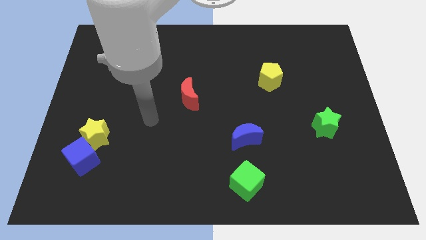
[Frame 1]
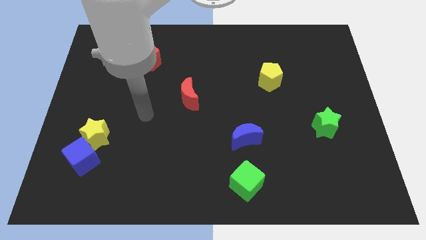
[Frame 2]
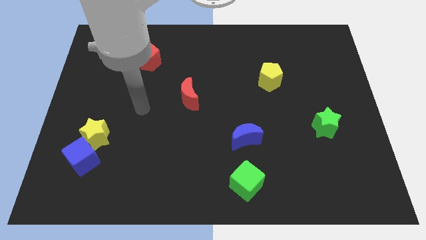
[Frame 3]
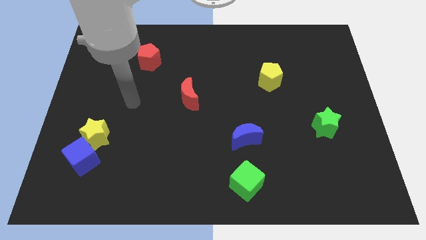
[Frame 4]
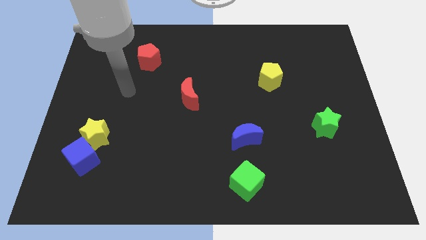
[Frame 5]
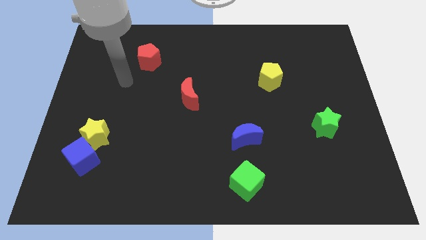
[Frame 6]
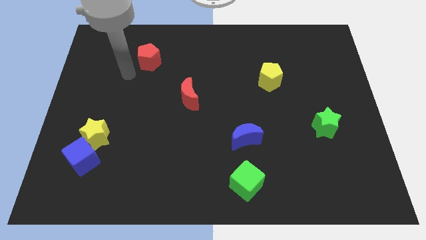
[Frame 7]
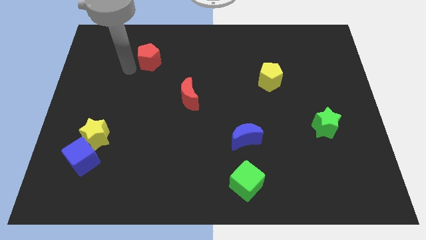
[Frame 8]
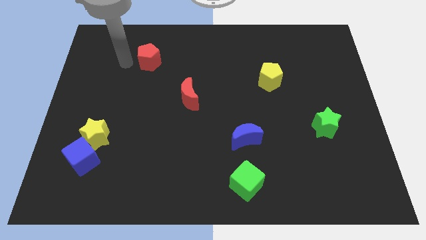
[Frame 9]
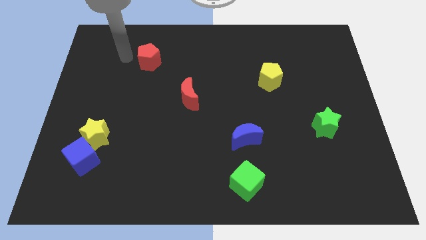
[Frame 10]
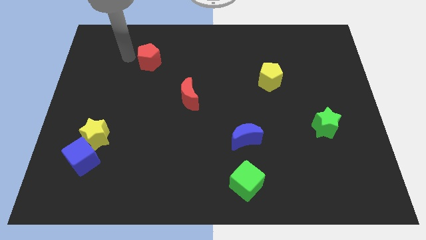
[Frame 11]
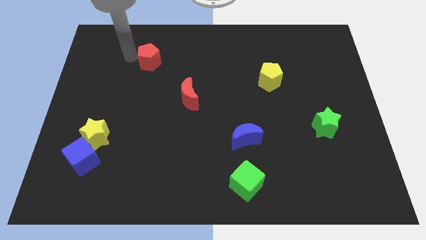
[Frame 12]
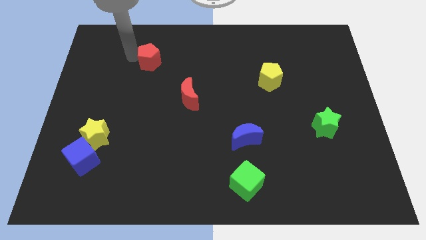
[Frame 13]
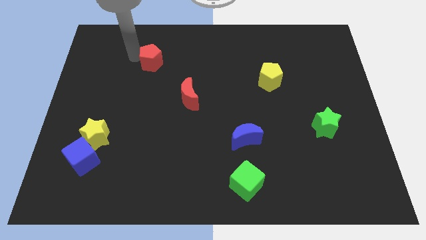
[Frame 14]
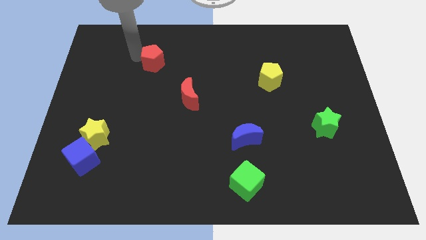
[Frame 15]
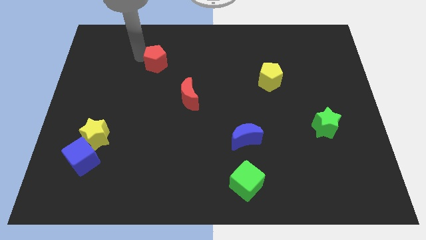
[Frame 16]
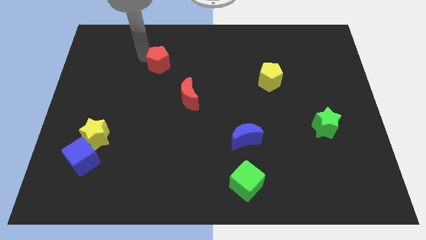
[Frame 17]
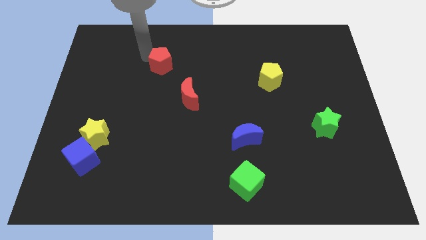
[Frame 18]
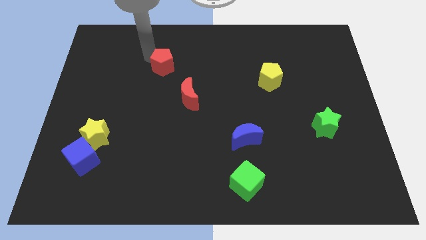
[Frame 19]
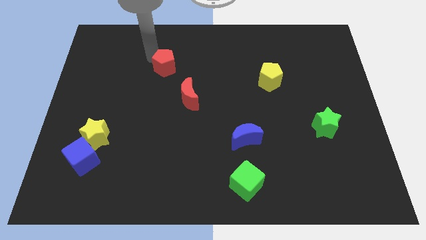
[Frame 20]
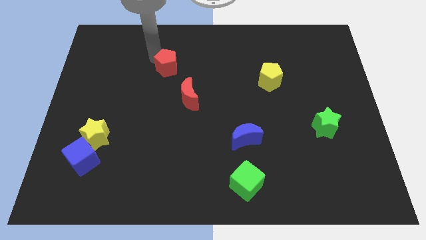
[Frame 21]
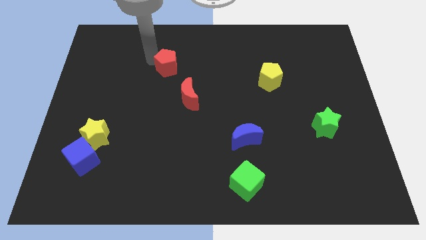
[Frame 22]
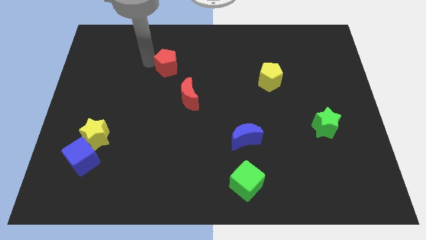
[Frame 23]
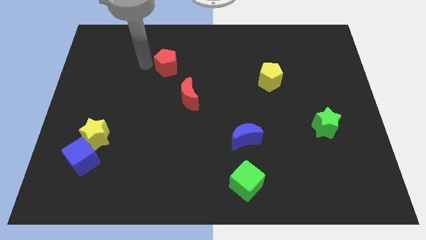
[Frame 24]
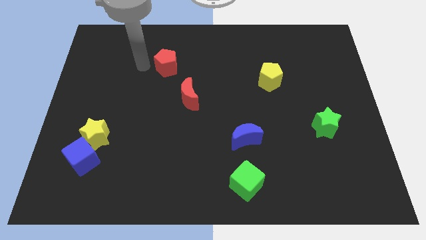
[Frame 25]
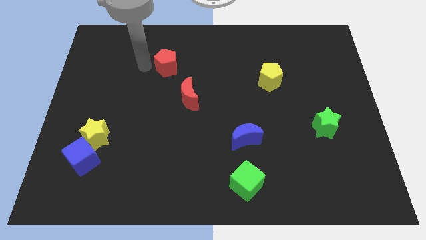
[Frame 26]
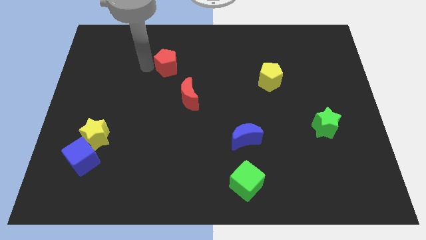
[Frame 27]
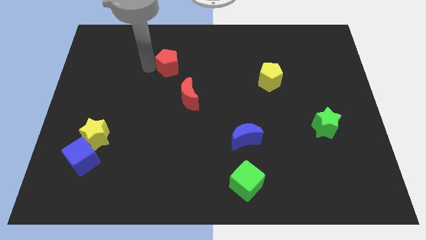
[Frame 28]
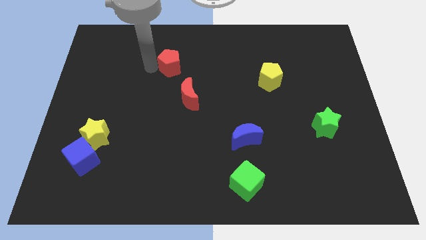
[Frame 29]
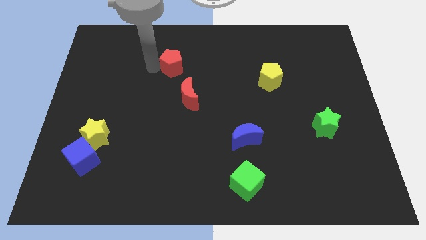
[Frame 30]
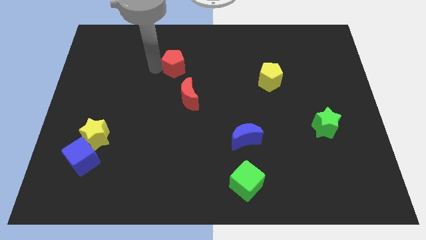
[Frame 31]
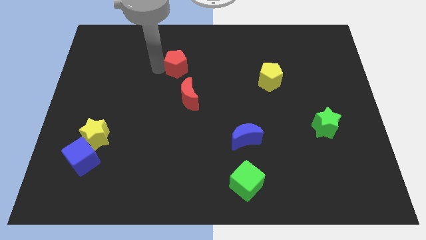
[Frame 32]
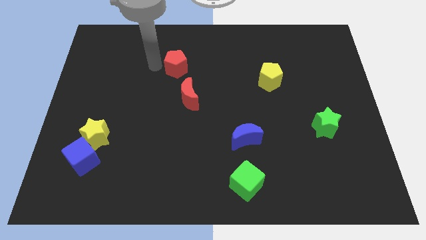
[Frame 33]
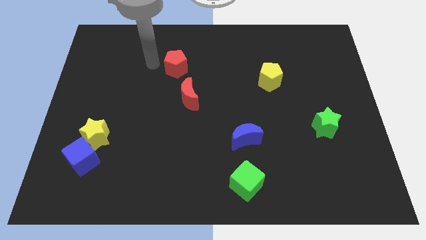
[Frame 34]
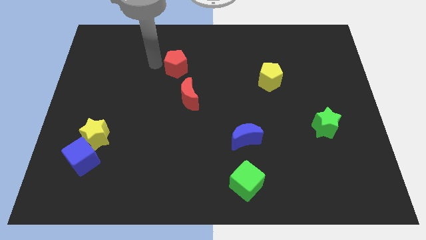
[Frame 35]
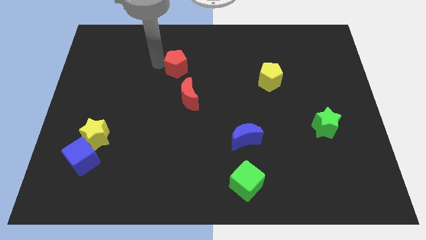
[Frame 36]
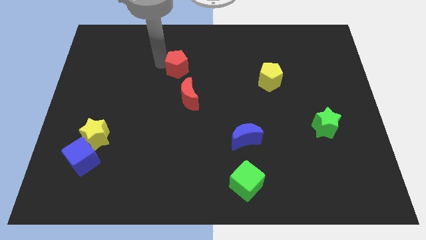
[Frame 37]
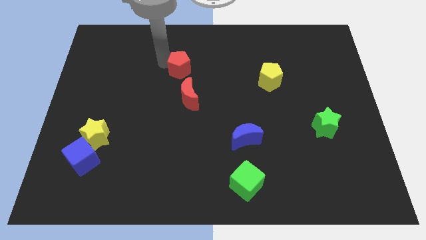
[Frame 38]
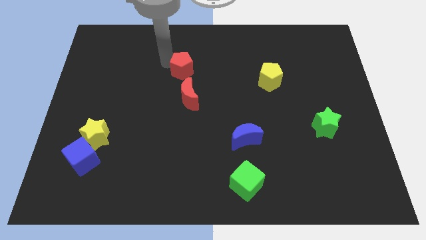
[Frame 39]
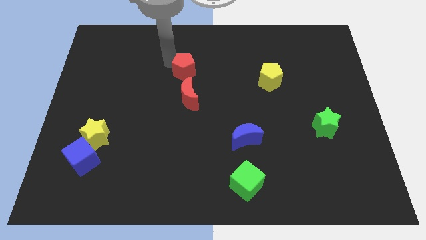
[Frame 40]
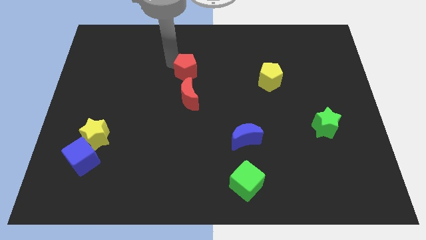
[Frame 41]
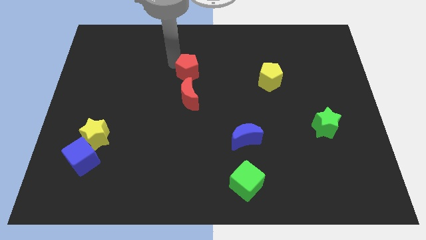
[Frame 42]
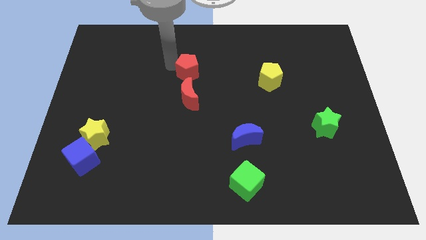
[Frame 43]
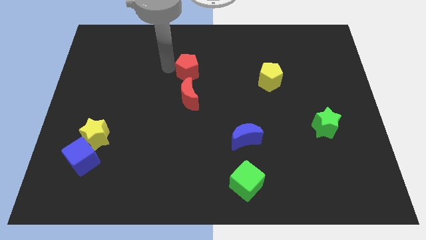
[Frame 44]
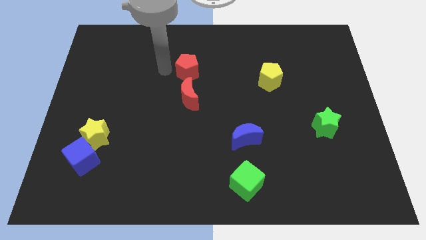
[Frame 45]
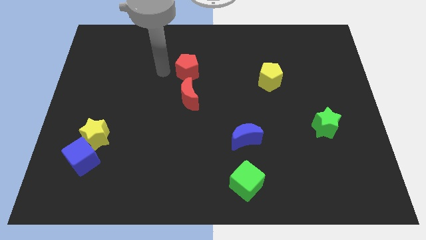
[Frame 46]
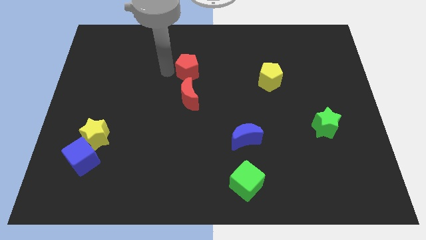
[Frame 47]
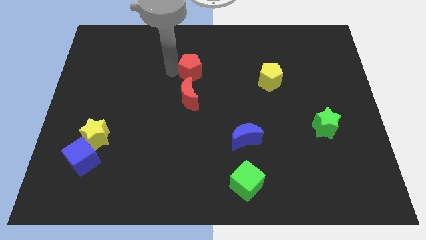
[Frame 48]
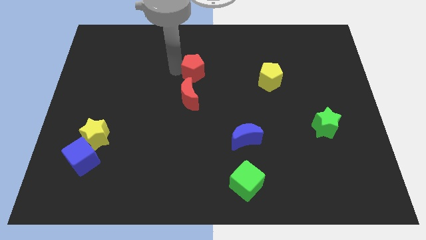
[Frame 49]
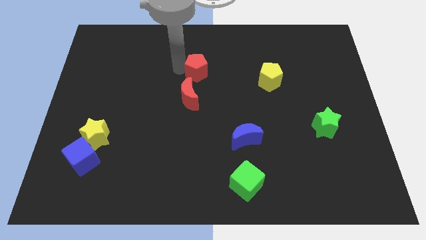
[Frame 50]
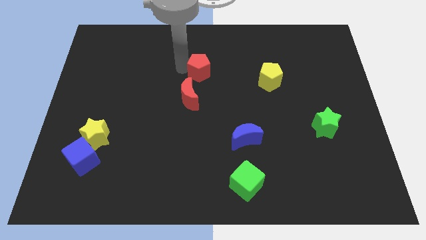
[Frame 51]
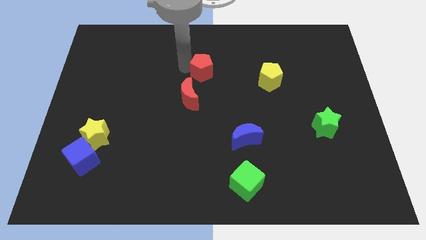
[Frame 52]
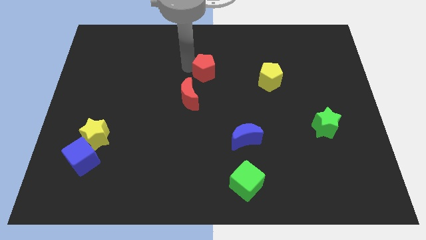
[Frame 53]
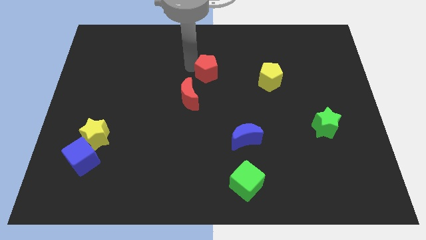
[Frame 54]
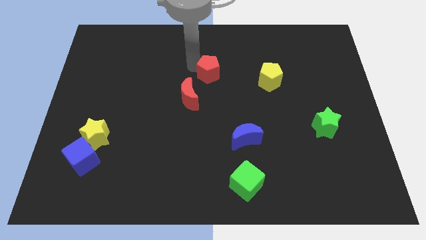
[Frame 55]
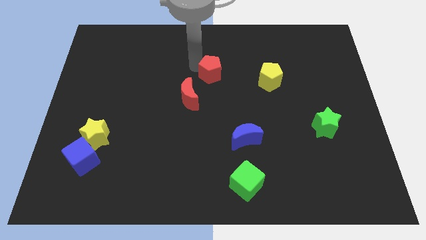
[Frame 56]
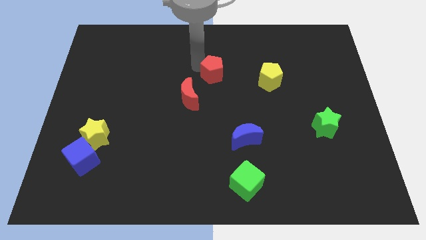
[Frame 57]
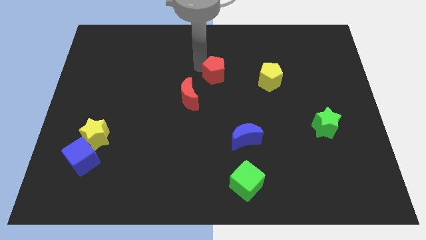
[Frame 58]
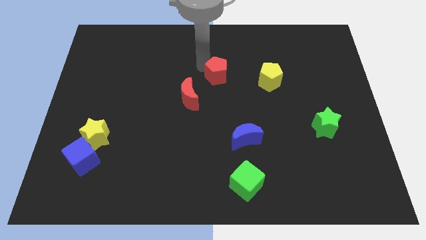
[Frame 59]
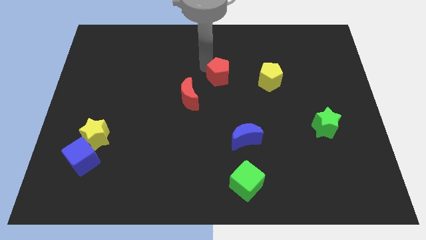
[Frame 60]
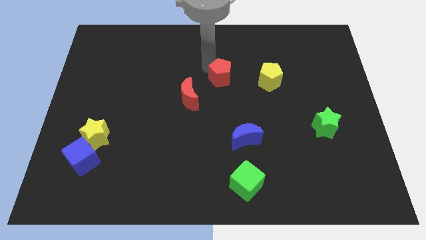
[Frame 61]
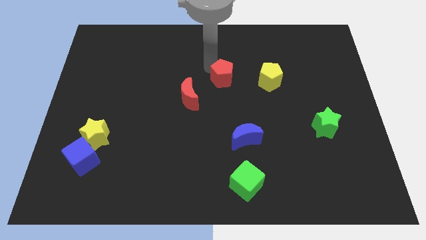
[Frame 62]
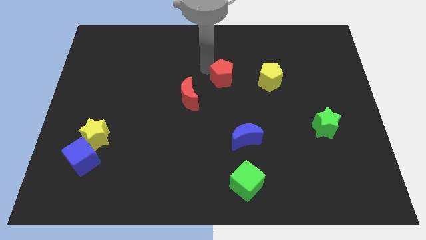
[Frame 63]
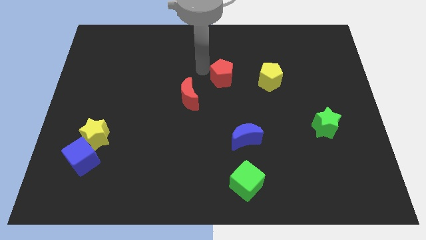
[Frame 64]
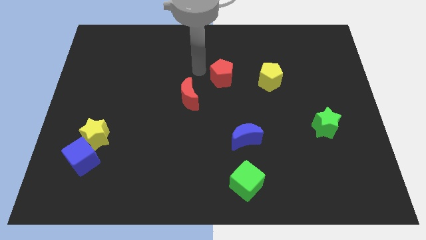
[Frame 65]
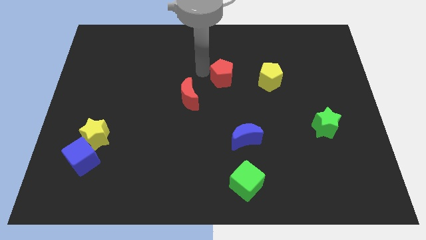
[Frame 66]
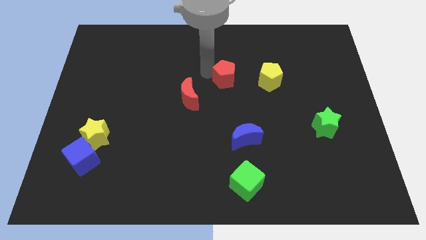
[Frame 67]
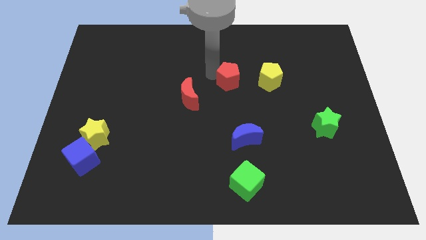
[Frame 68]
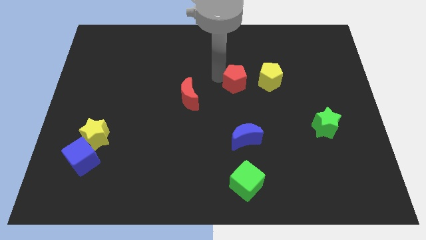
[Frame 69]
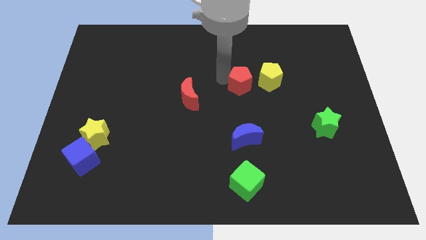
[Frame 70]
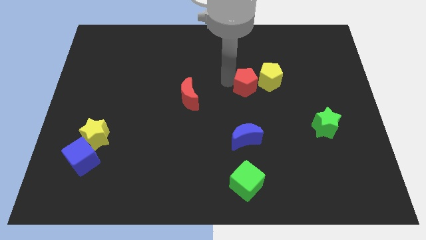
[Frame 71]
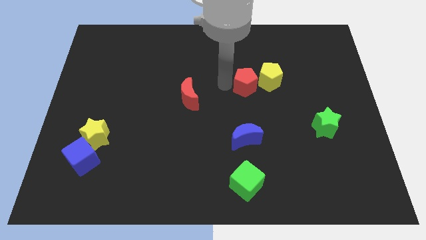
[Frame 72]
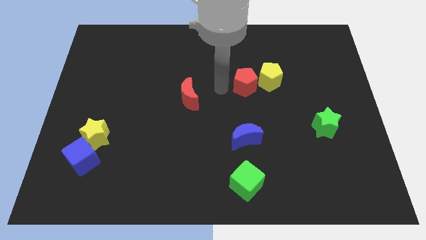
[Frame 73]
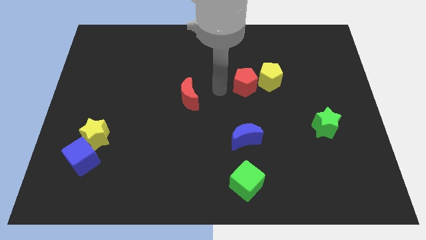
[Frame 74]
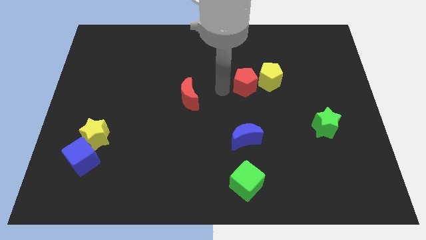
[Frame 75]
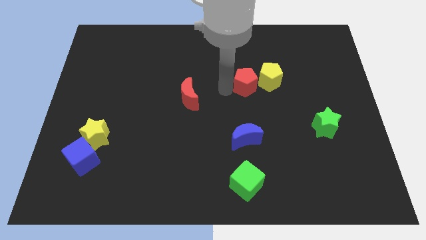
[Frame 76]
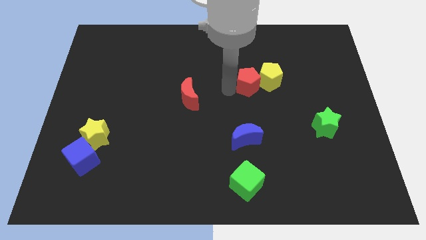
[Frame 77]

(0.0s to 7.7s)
slide the red pentagon to the yellow pentagon
